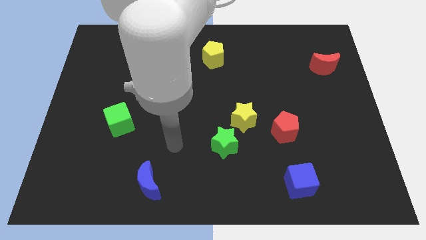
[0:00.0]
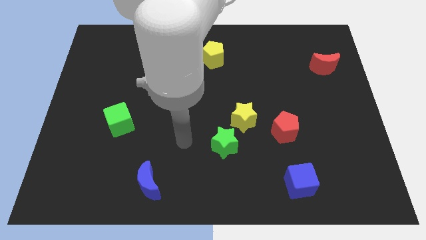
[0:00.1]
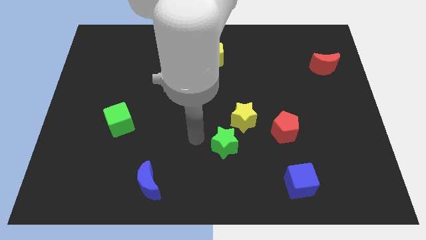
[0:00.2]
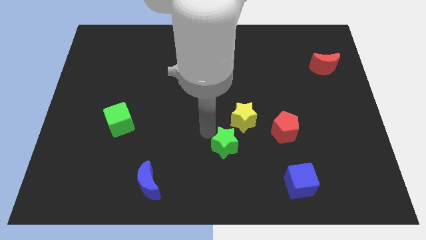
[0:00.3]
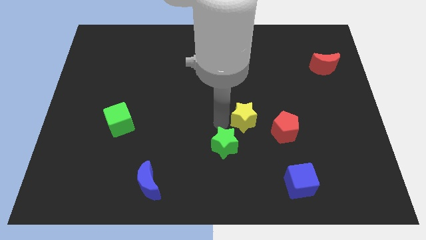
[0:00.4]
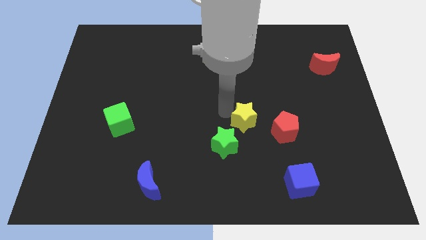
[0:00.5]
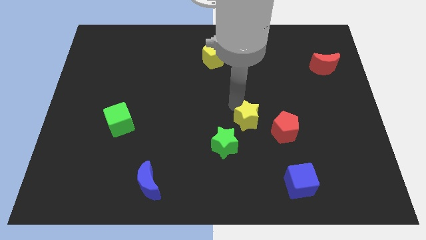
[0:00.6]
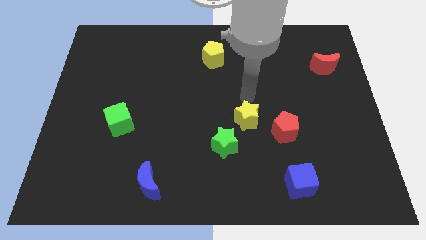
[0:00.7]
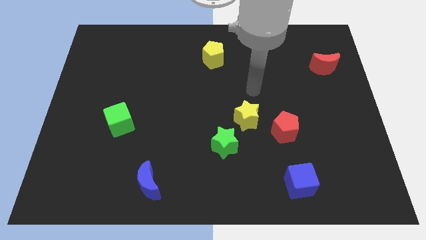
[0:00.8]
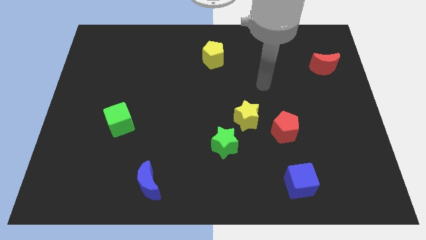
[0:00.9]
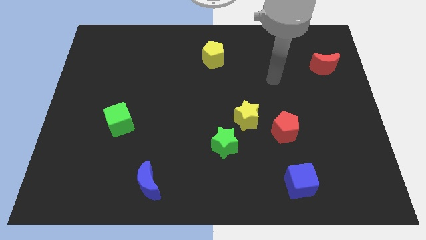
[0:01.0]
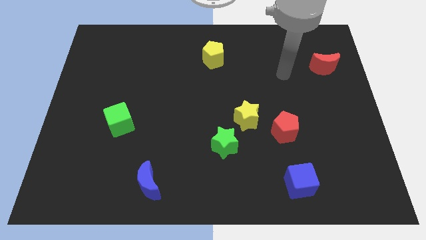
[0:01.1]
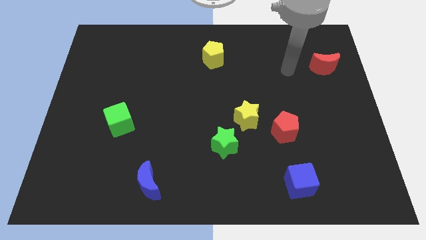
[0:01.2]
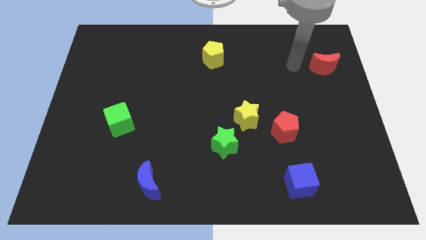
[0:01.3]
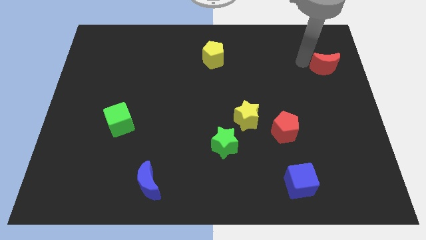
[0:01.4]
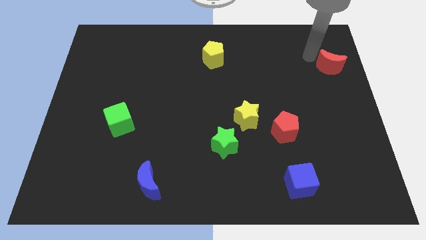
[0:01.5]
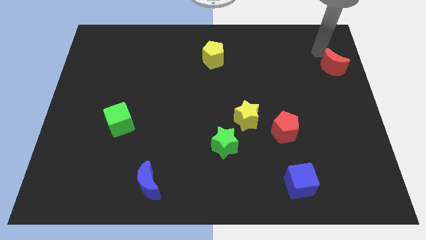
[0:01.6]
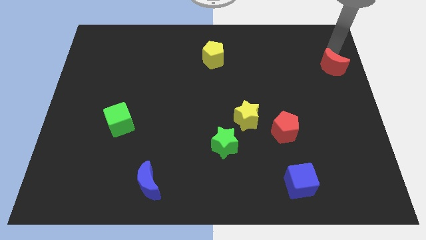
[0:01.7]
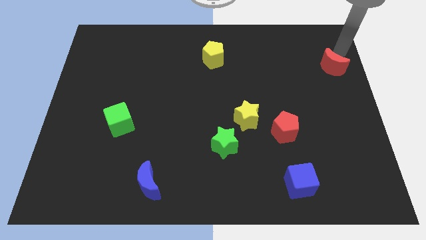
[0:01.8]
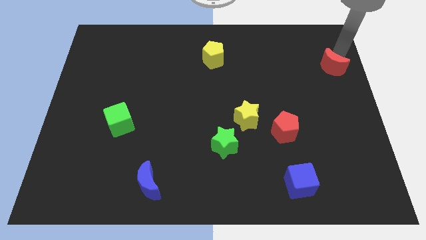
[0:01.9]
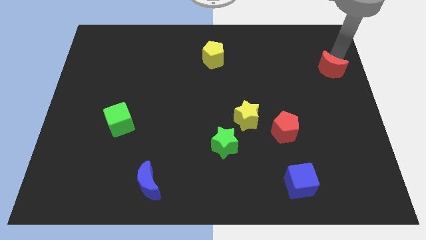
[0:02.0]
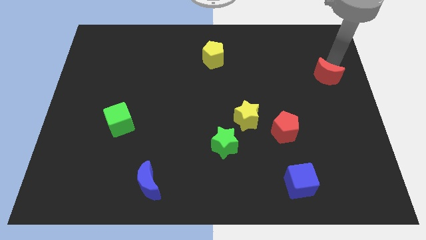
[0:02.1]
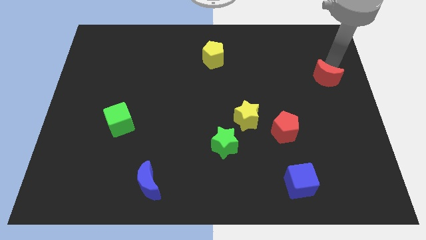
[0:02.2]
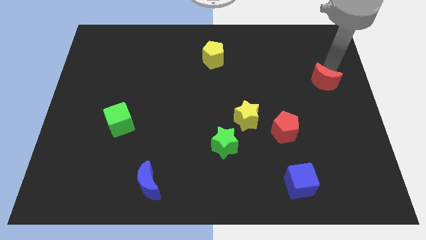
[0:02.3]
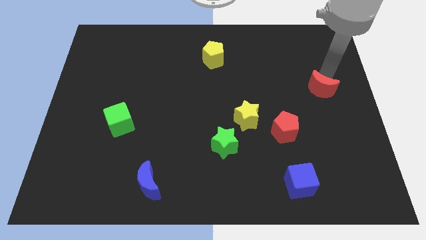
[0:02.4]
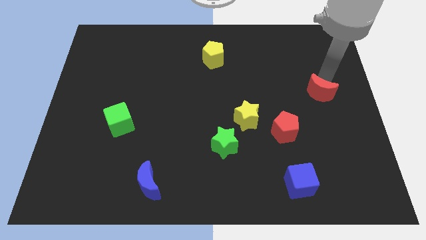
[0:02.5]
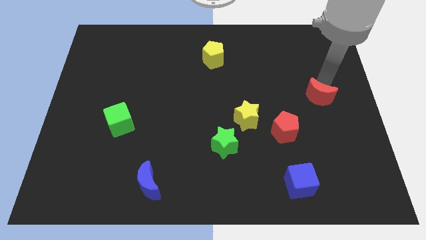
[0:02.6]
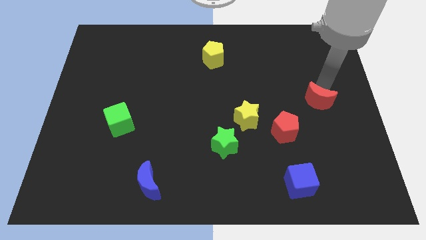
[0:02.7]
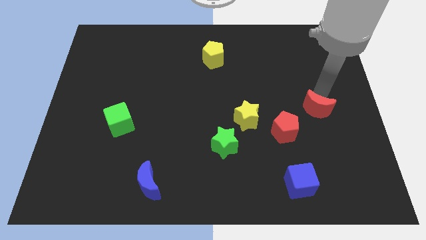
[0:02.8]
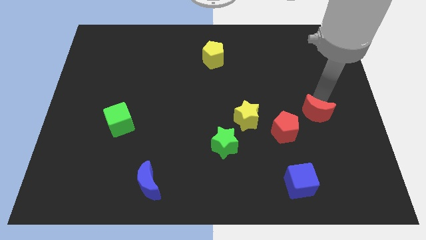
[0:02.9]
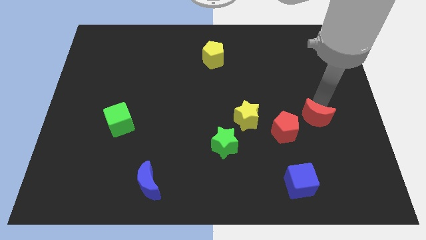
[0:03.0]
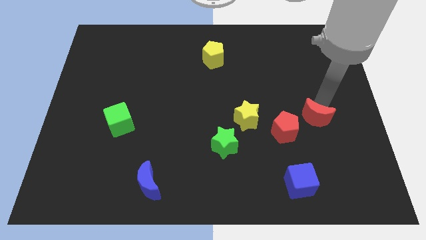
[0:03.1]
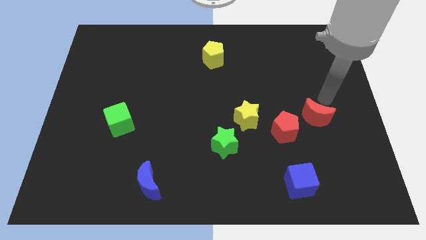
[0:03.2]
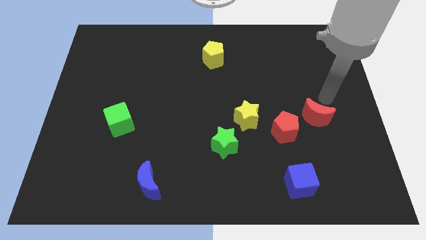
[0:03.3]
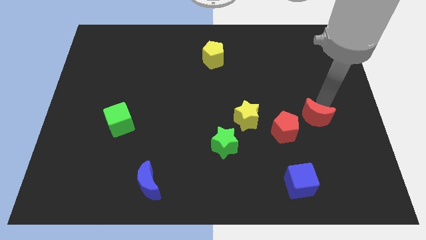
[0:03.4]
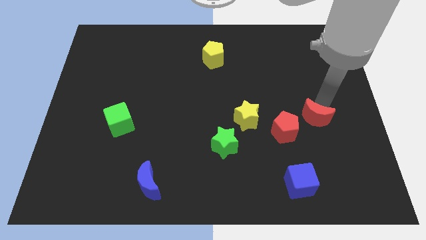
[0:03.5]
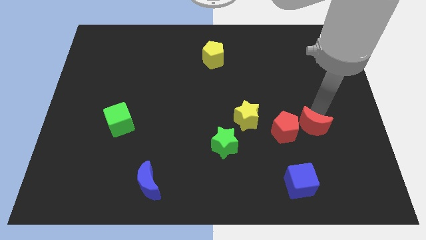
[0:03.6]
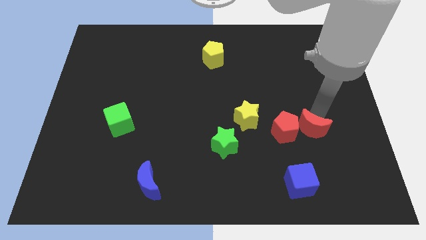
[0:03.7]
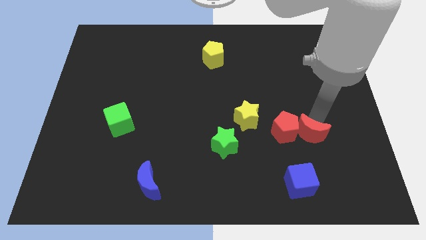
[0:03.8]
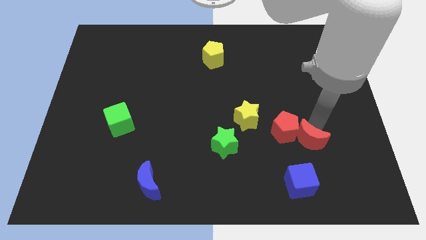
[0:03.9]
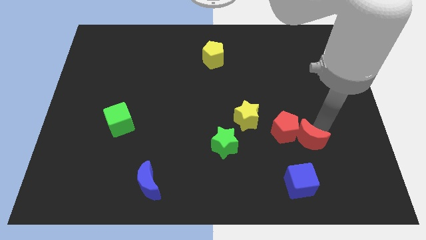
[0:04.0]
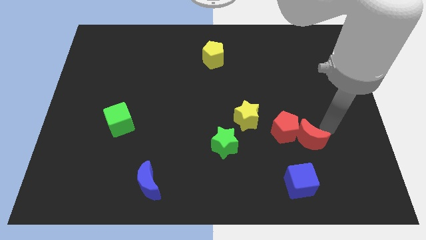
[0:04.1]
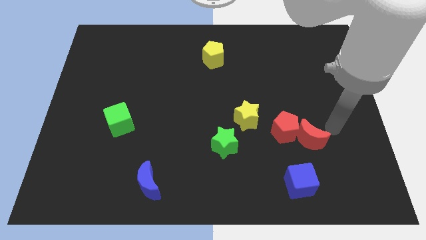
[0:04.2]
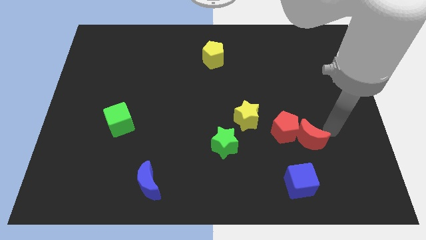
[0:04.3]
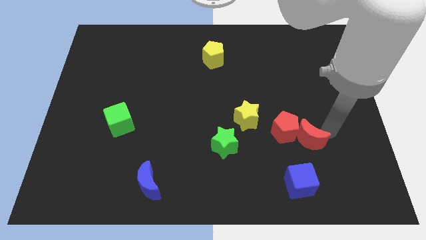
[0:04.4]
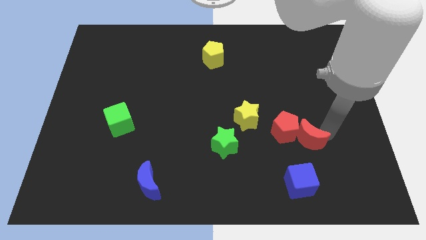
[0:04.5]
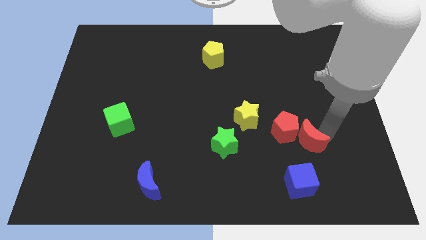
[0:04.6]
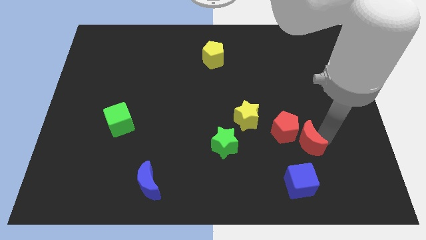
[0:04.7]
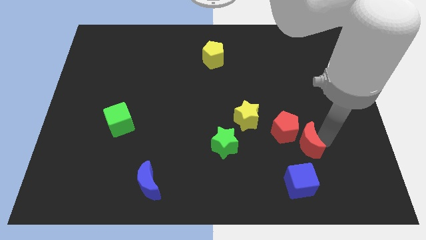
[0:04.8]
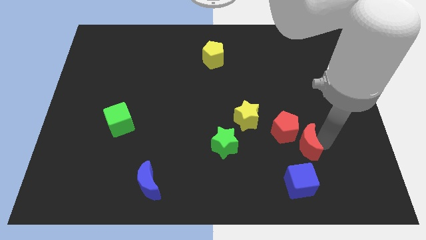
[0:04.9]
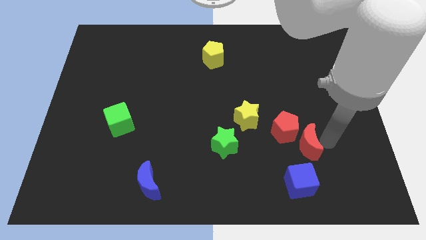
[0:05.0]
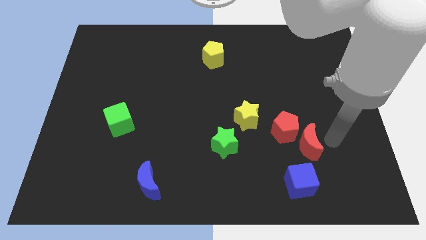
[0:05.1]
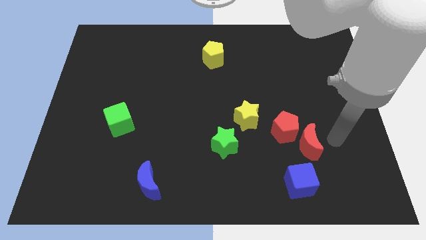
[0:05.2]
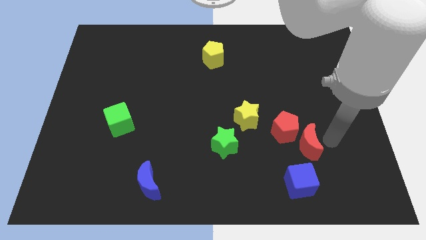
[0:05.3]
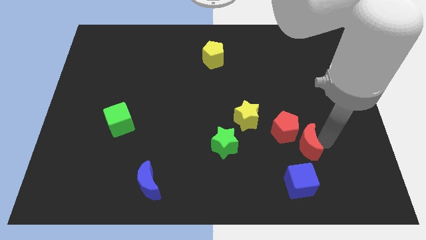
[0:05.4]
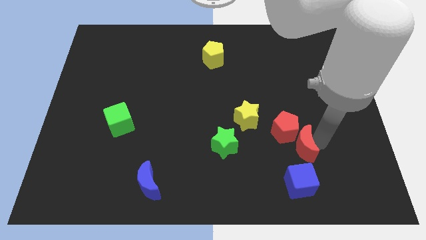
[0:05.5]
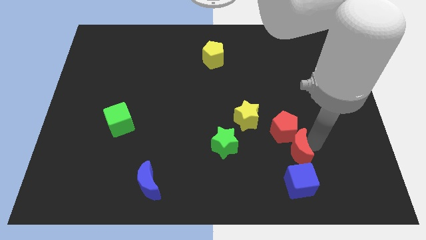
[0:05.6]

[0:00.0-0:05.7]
put the red moon just right of the green star

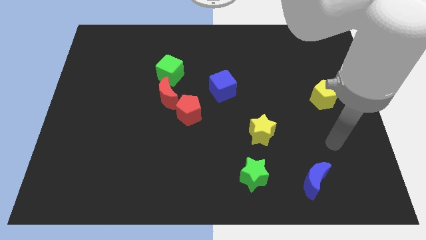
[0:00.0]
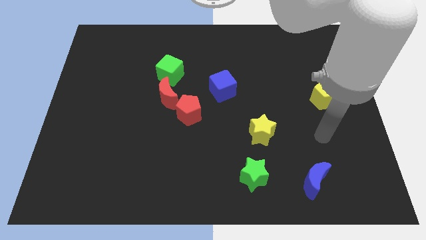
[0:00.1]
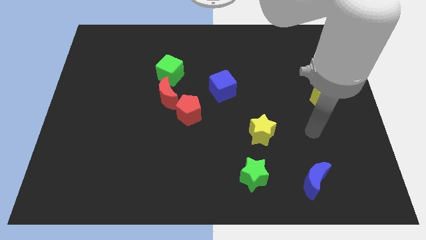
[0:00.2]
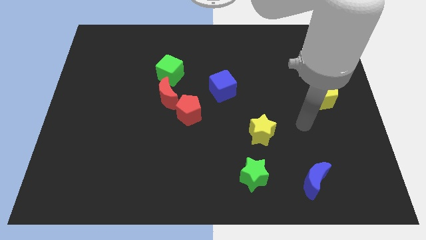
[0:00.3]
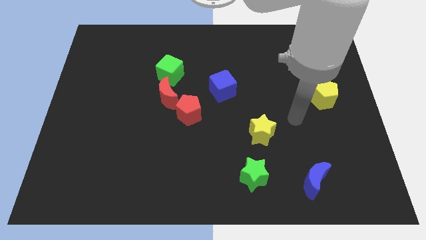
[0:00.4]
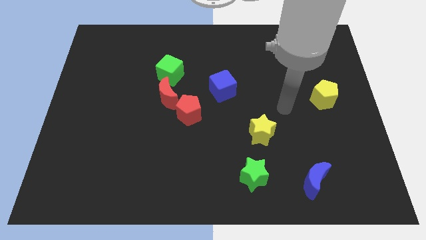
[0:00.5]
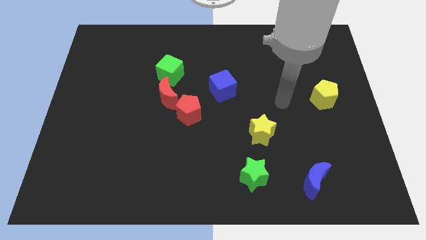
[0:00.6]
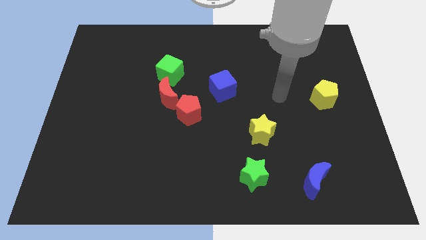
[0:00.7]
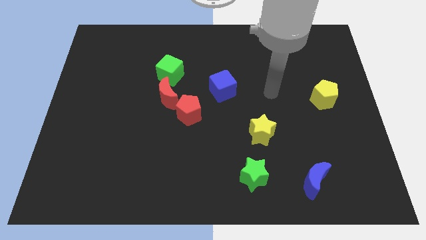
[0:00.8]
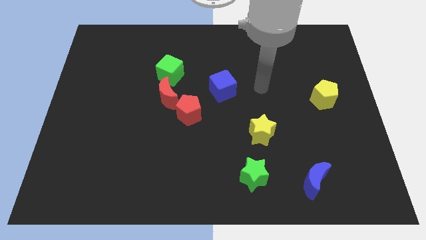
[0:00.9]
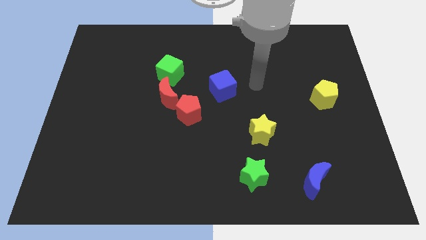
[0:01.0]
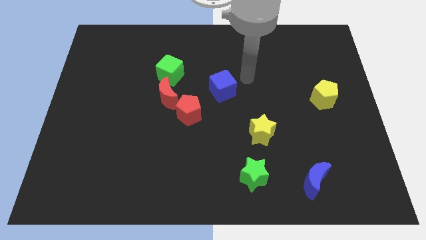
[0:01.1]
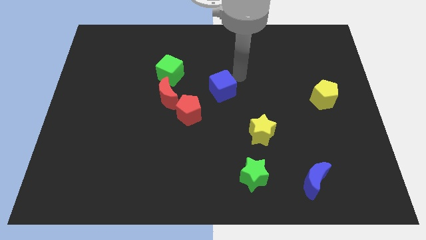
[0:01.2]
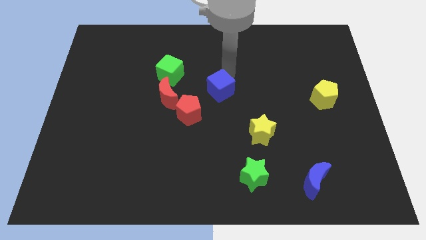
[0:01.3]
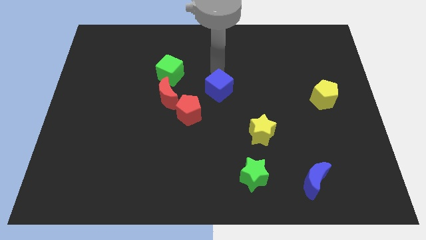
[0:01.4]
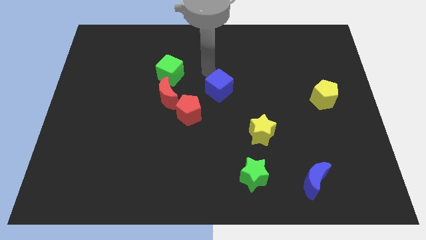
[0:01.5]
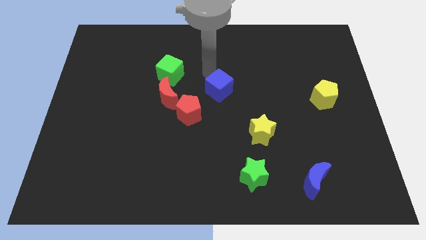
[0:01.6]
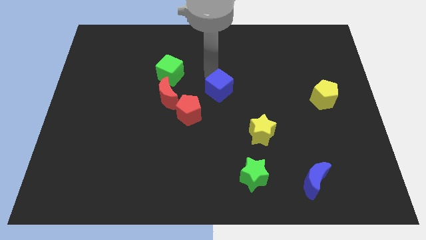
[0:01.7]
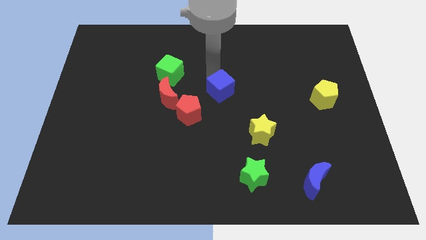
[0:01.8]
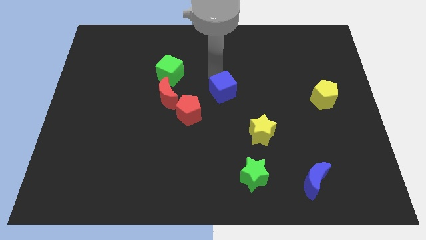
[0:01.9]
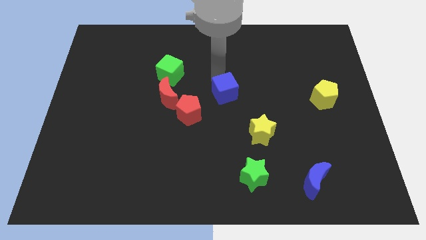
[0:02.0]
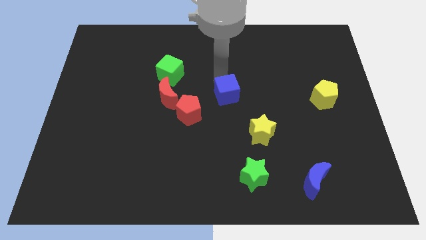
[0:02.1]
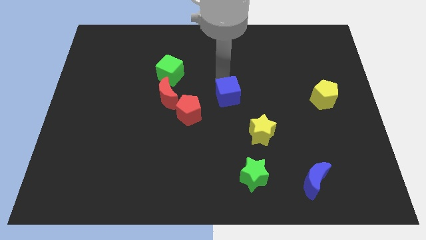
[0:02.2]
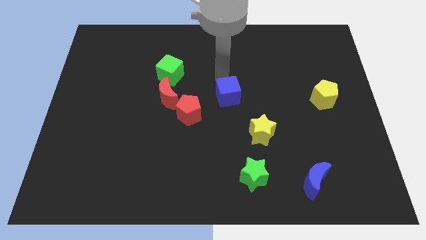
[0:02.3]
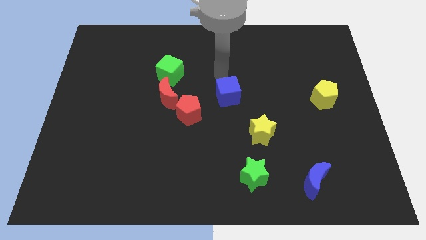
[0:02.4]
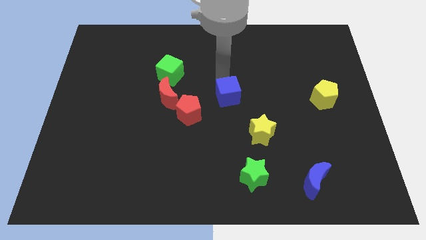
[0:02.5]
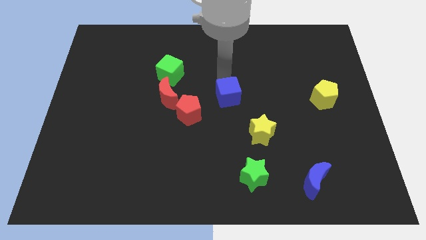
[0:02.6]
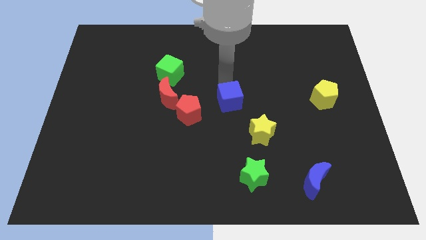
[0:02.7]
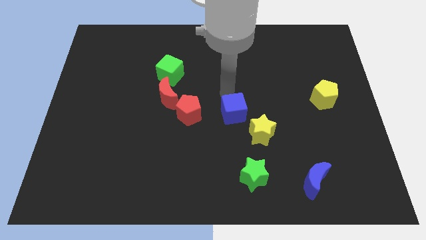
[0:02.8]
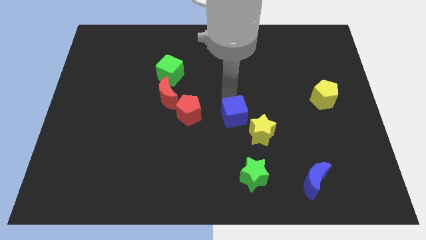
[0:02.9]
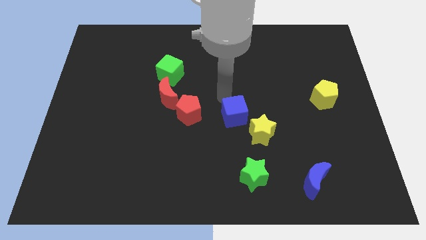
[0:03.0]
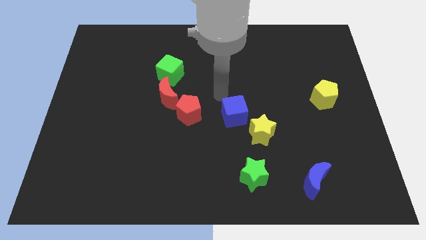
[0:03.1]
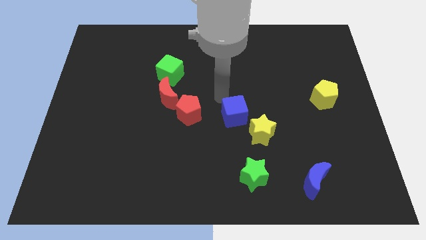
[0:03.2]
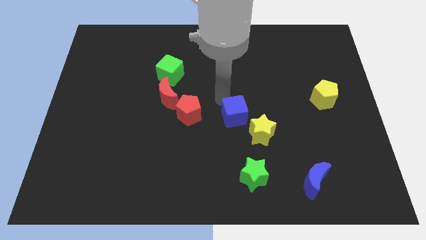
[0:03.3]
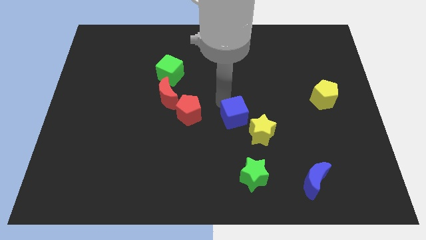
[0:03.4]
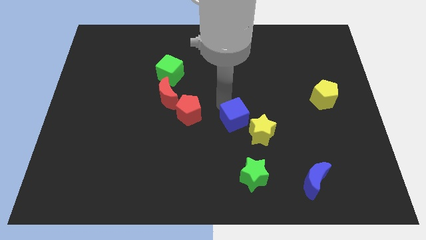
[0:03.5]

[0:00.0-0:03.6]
push the blue cube to the top of the green star
